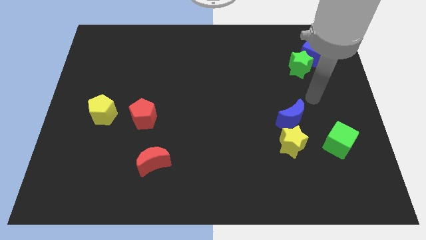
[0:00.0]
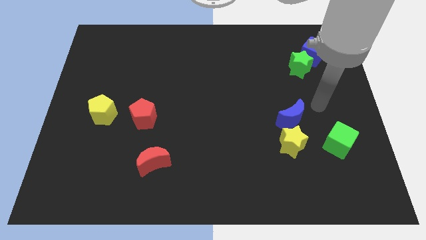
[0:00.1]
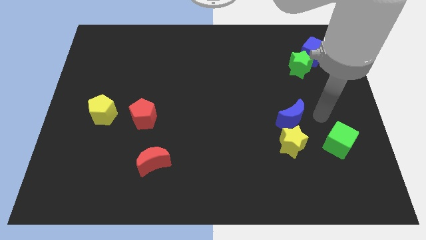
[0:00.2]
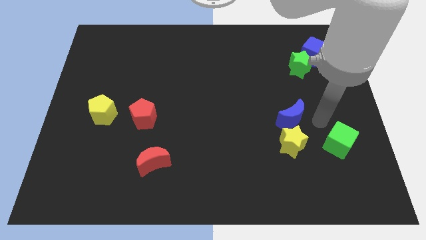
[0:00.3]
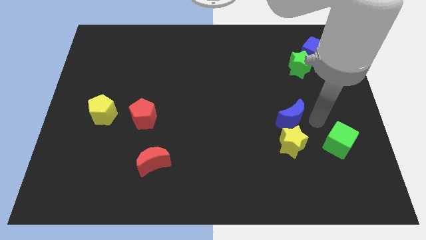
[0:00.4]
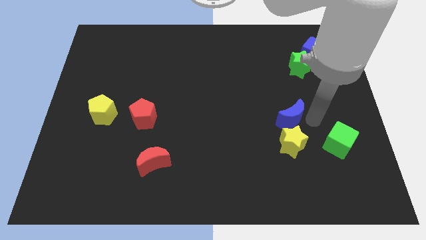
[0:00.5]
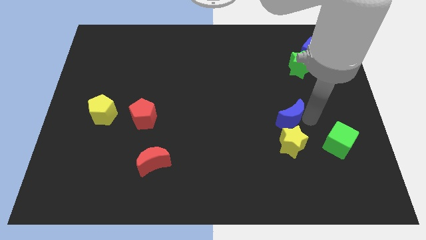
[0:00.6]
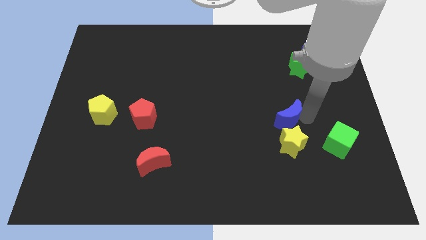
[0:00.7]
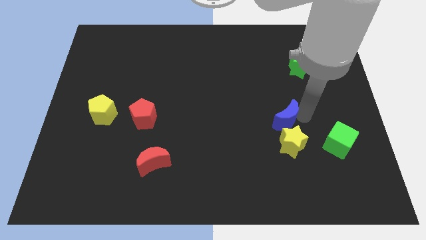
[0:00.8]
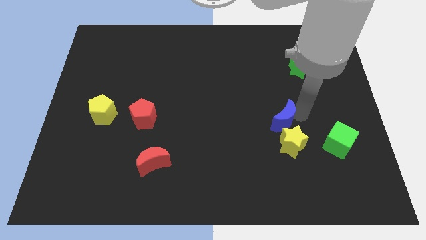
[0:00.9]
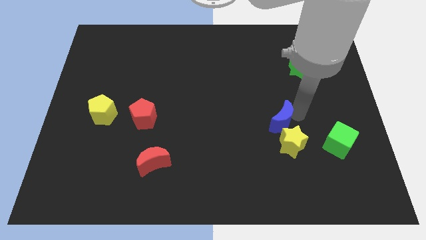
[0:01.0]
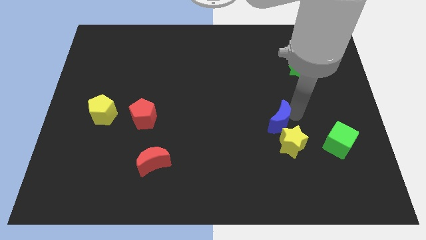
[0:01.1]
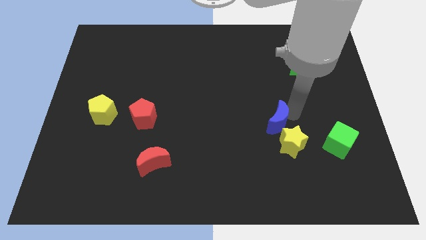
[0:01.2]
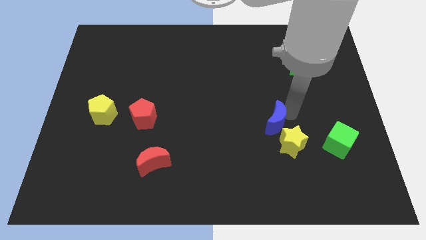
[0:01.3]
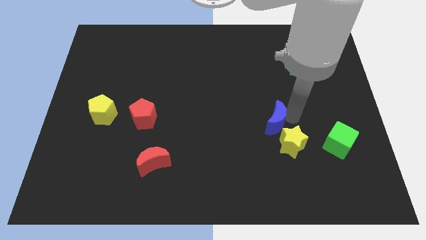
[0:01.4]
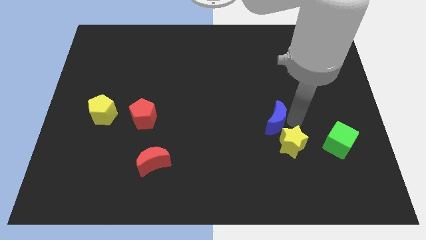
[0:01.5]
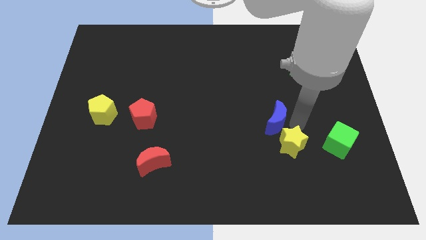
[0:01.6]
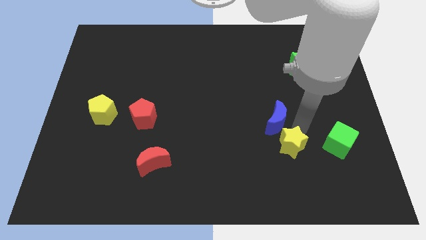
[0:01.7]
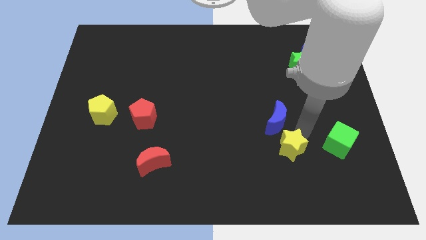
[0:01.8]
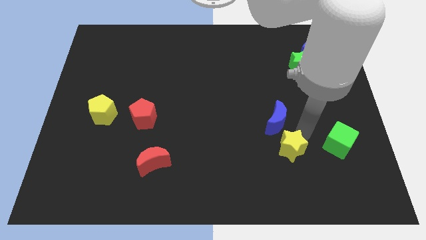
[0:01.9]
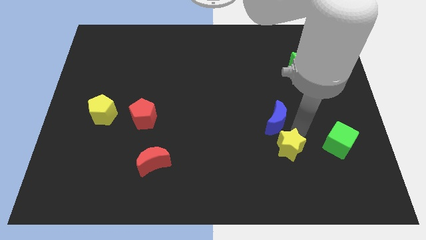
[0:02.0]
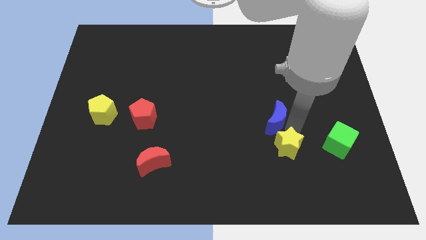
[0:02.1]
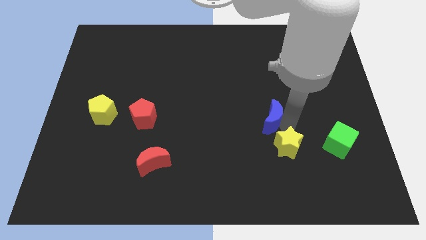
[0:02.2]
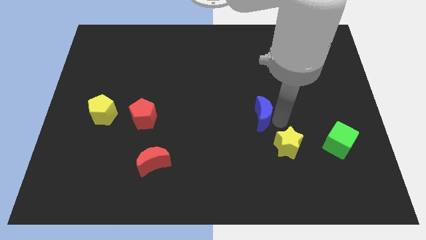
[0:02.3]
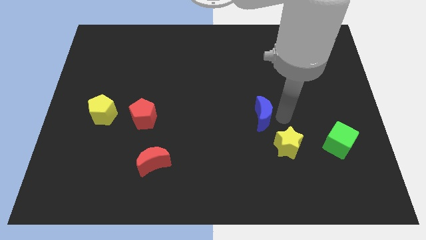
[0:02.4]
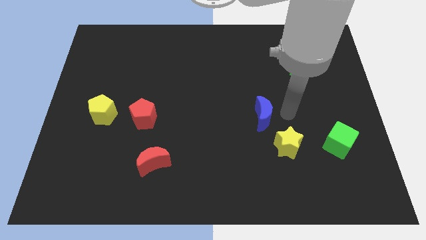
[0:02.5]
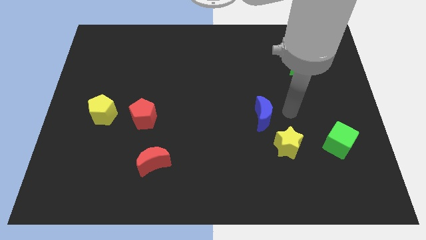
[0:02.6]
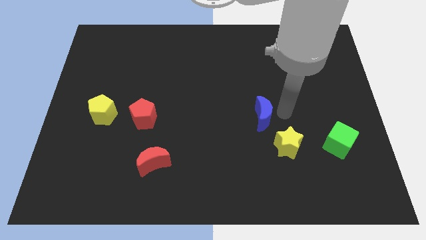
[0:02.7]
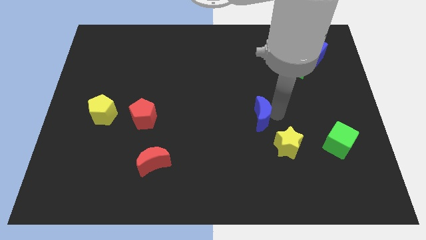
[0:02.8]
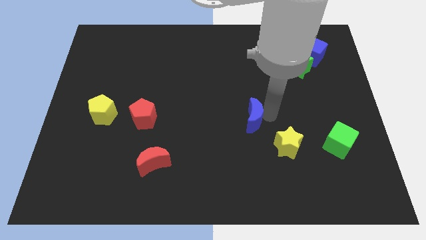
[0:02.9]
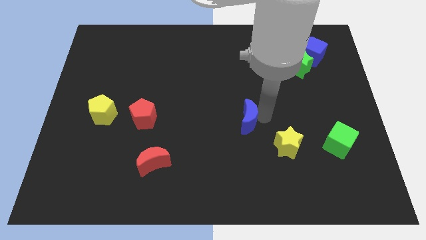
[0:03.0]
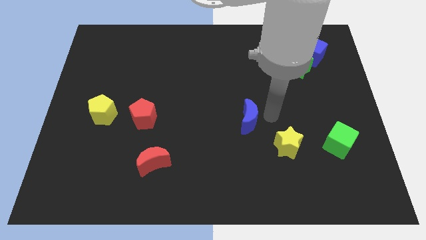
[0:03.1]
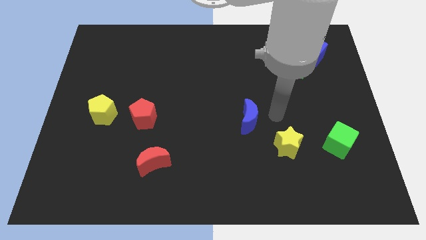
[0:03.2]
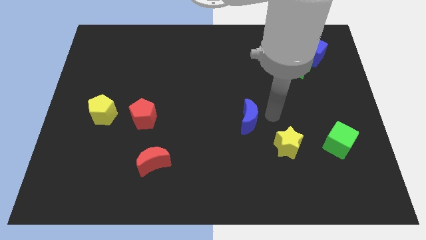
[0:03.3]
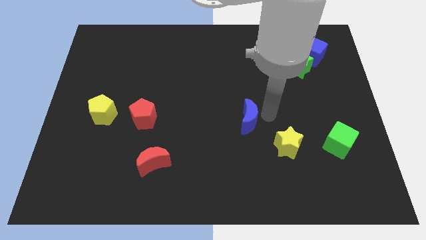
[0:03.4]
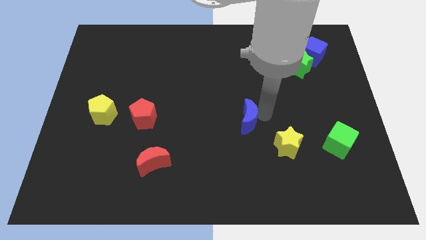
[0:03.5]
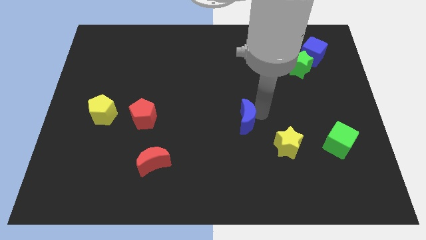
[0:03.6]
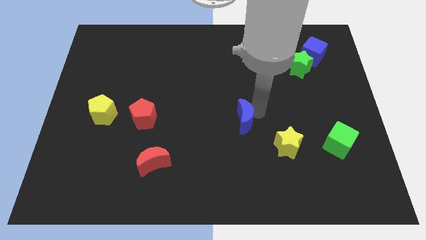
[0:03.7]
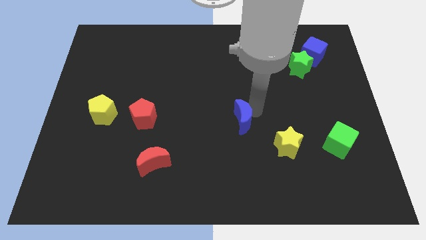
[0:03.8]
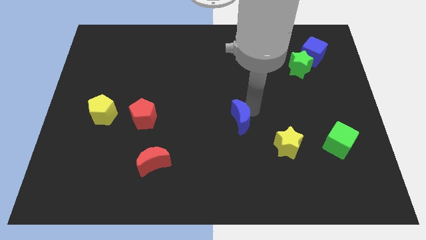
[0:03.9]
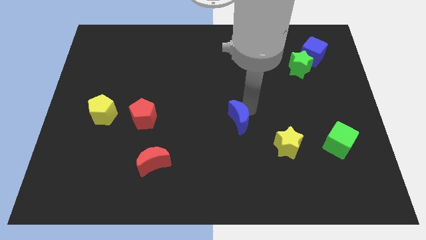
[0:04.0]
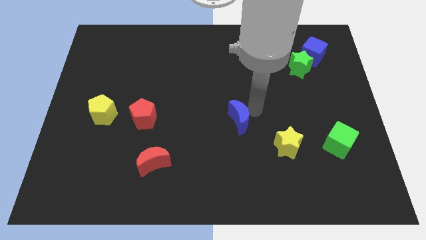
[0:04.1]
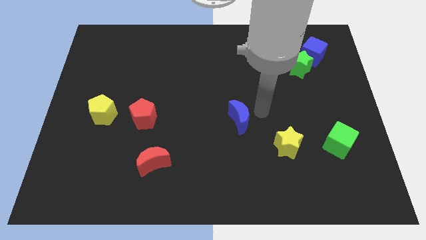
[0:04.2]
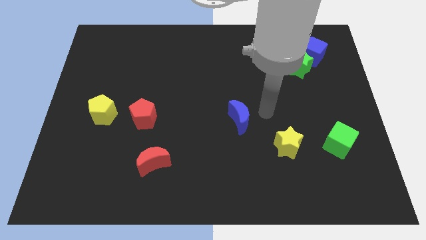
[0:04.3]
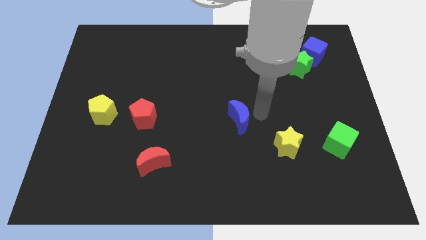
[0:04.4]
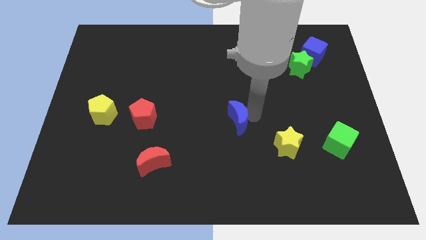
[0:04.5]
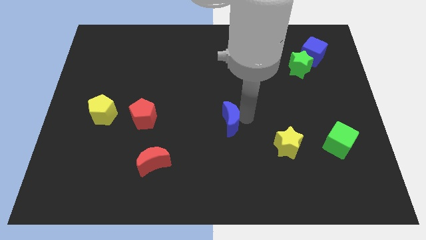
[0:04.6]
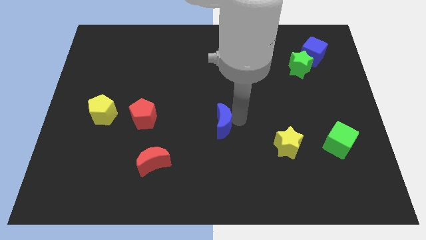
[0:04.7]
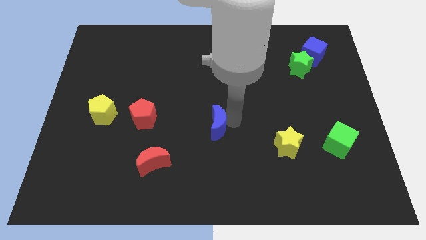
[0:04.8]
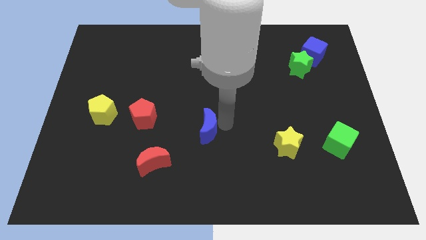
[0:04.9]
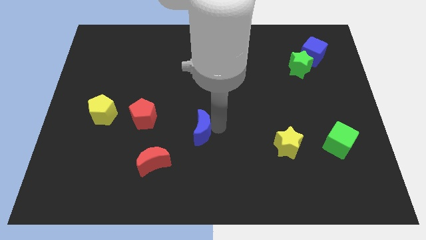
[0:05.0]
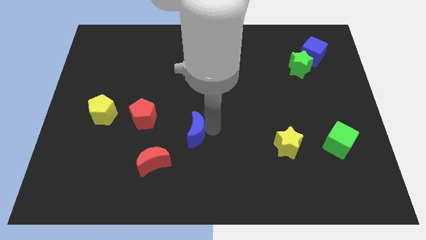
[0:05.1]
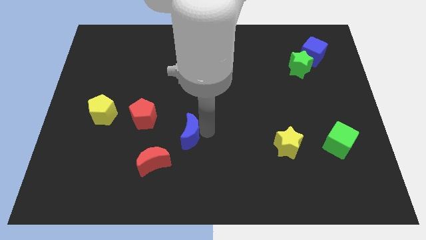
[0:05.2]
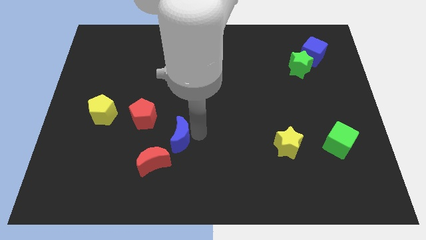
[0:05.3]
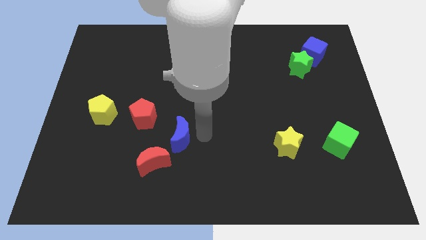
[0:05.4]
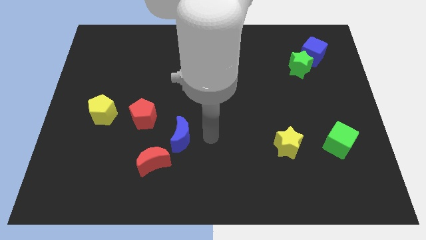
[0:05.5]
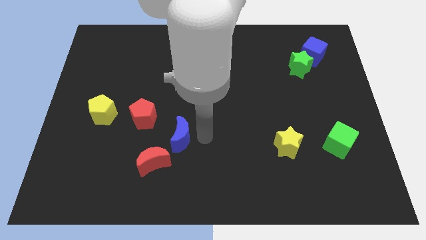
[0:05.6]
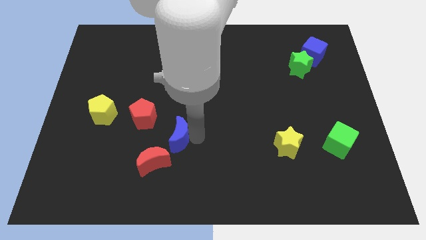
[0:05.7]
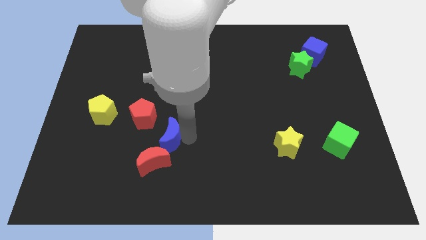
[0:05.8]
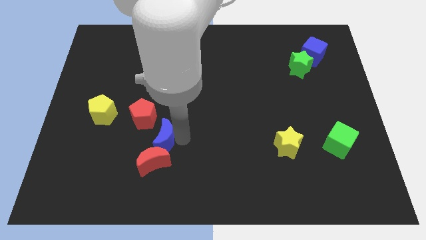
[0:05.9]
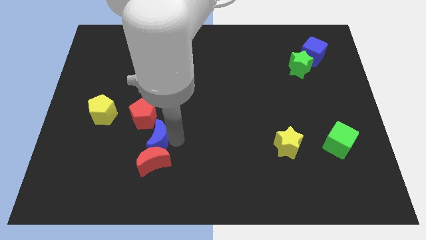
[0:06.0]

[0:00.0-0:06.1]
put the blue moon to the top left side of the red moon

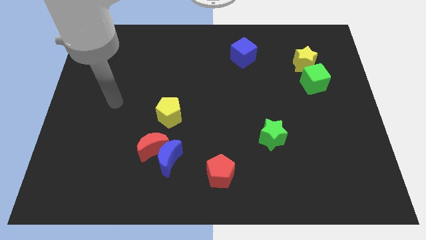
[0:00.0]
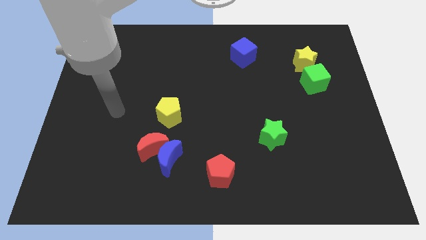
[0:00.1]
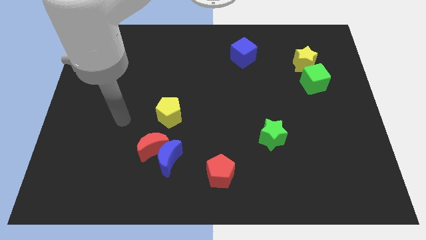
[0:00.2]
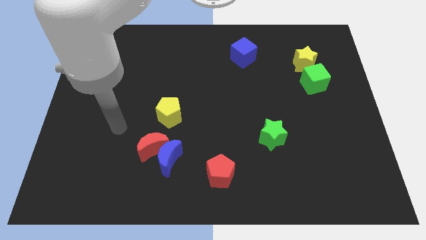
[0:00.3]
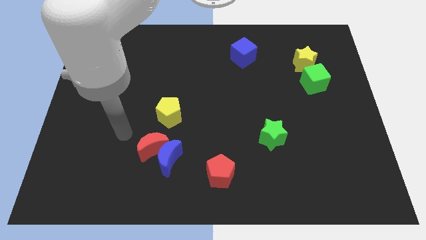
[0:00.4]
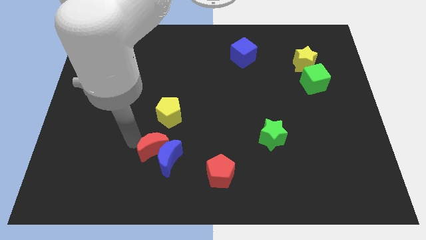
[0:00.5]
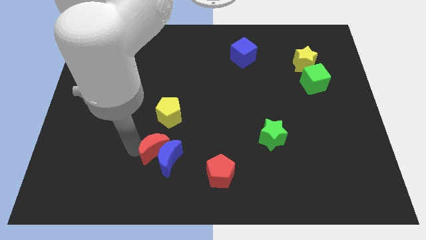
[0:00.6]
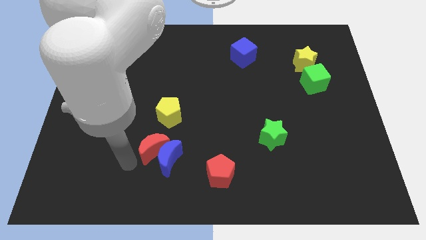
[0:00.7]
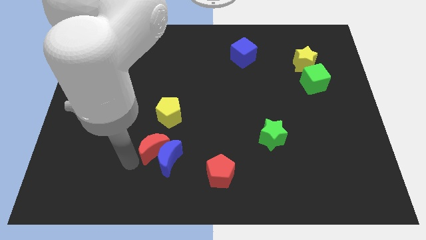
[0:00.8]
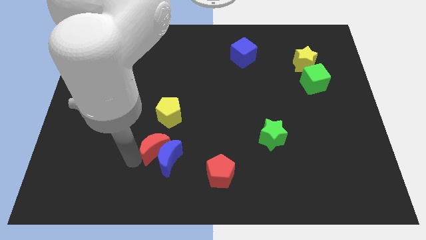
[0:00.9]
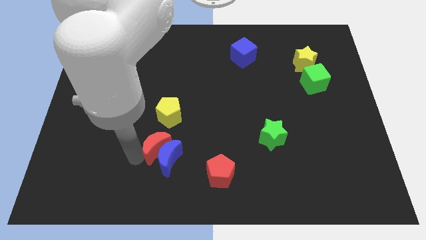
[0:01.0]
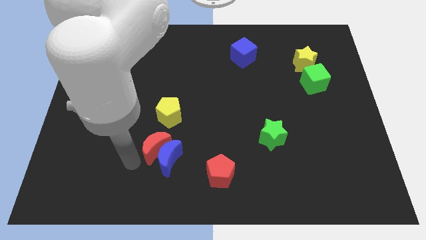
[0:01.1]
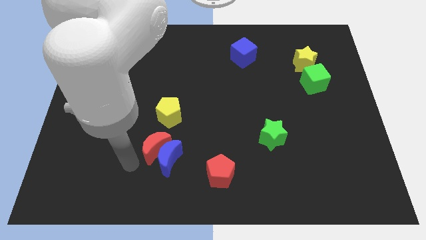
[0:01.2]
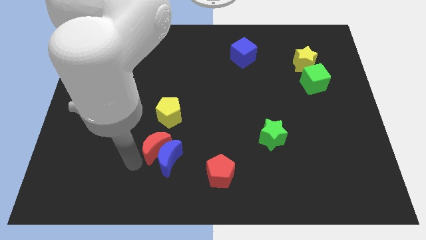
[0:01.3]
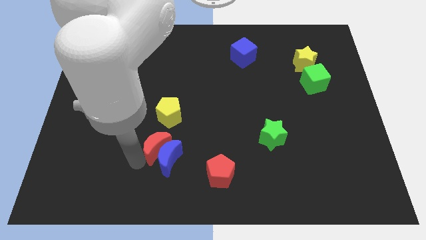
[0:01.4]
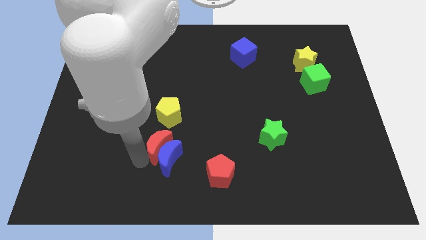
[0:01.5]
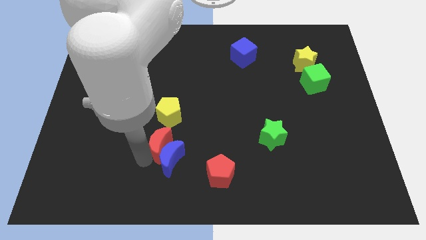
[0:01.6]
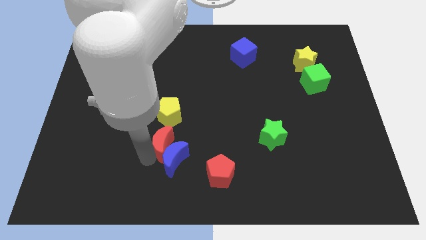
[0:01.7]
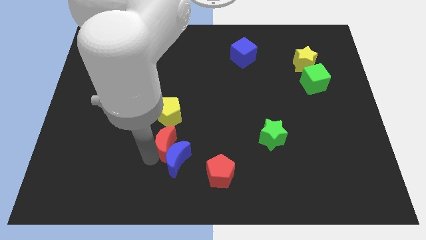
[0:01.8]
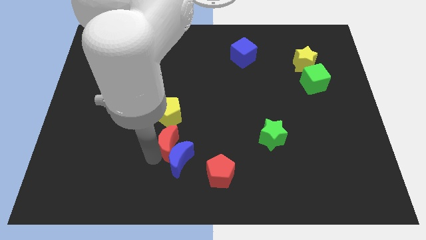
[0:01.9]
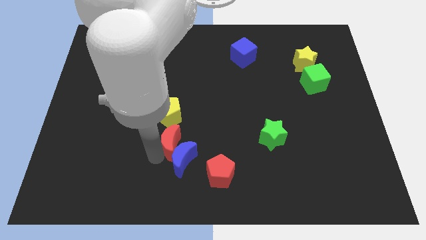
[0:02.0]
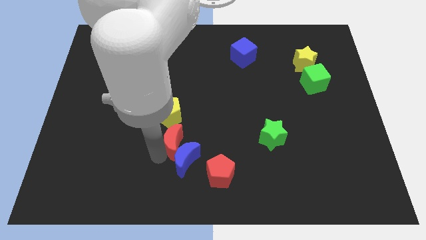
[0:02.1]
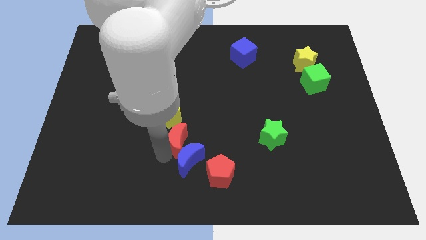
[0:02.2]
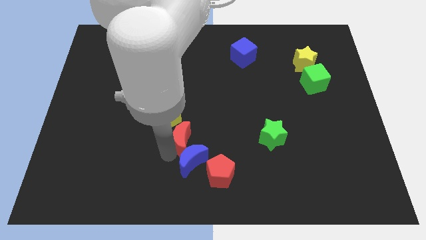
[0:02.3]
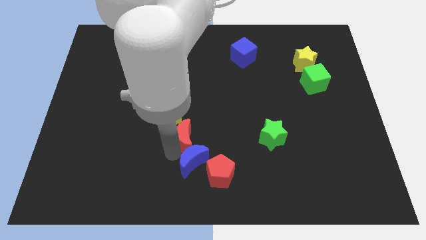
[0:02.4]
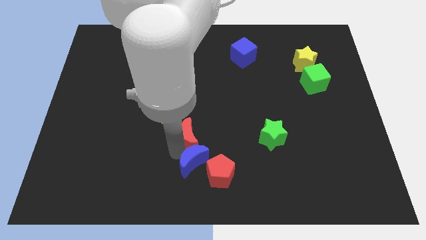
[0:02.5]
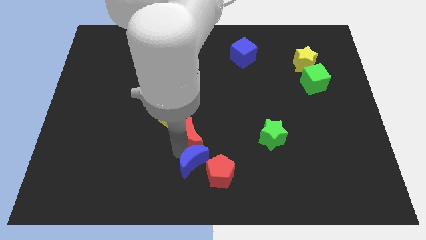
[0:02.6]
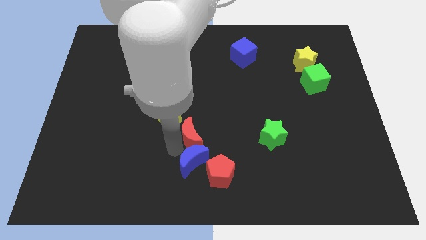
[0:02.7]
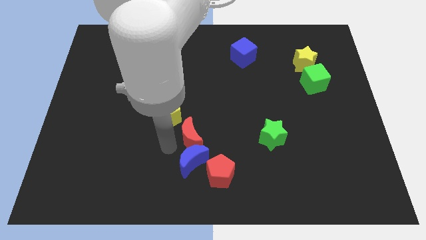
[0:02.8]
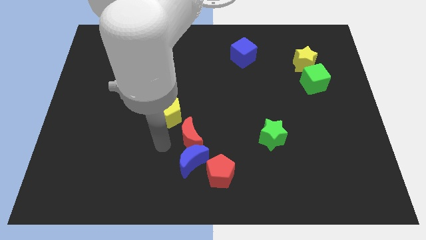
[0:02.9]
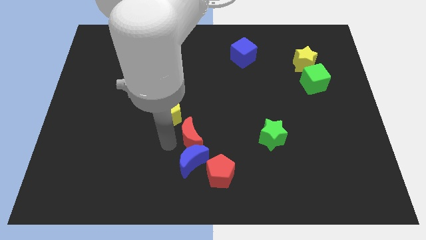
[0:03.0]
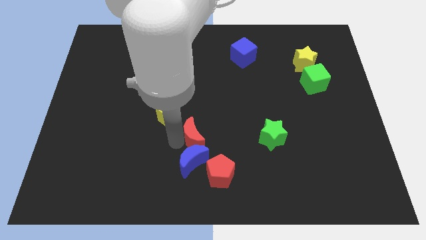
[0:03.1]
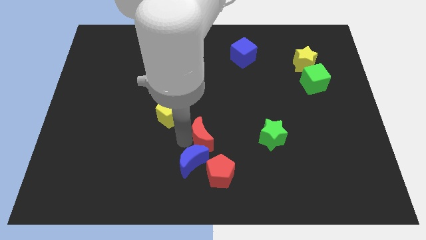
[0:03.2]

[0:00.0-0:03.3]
put the red moon to the top of the red pentagon
